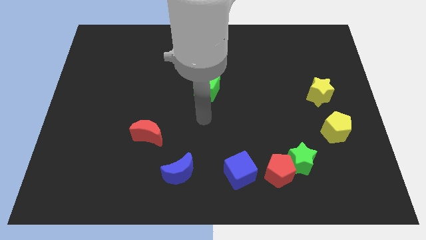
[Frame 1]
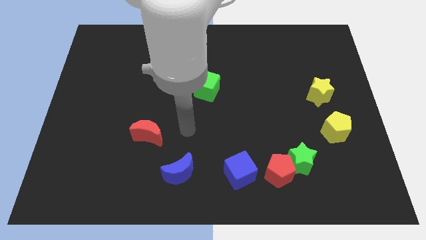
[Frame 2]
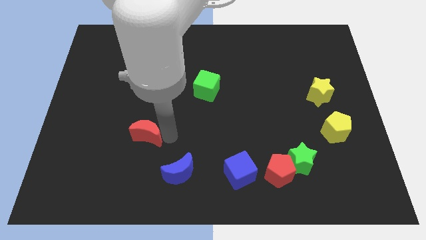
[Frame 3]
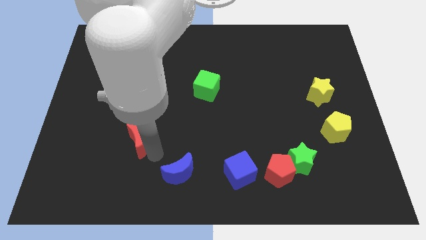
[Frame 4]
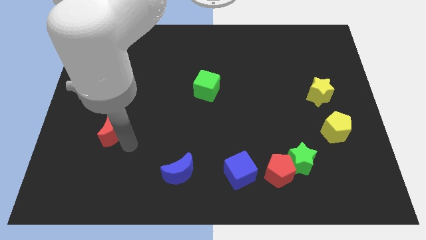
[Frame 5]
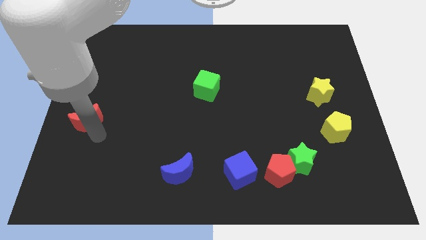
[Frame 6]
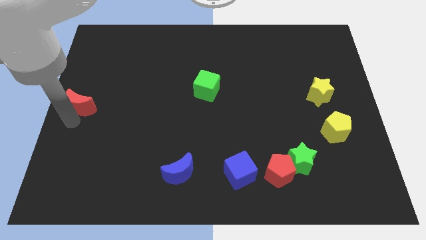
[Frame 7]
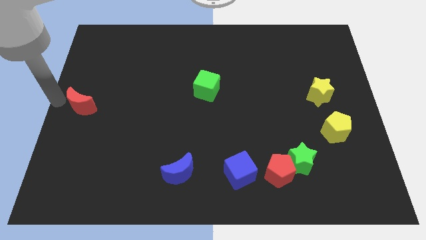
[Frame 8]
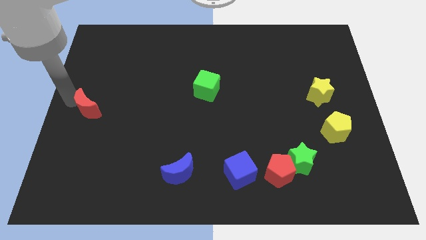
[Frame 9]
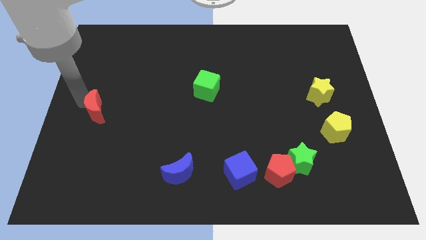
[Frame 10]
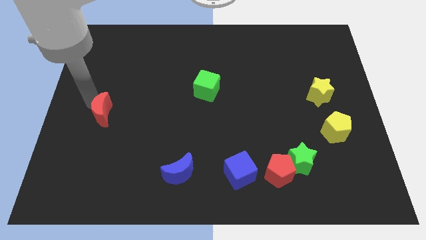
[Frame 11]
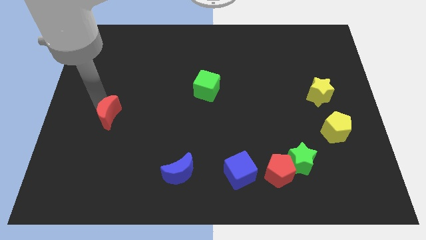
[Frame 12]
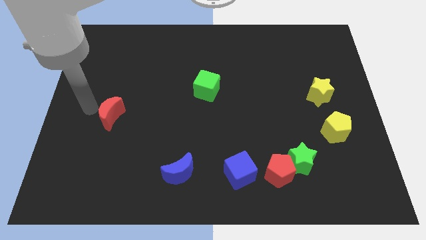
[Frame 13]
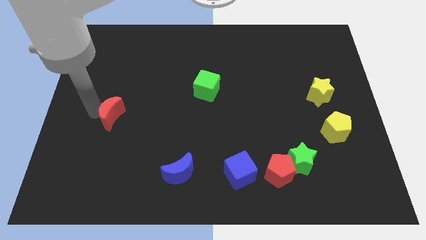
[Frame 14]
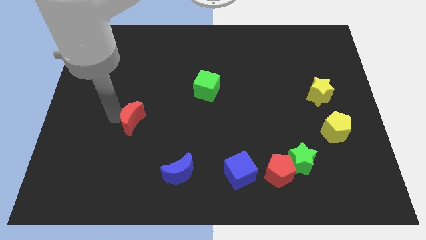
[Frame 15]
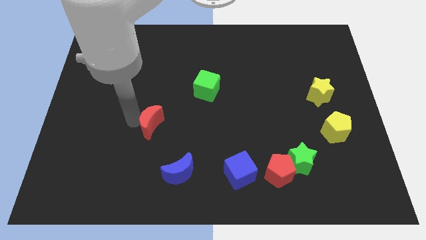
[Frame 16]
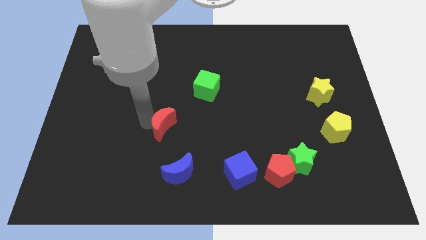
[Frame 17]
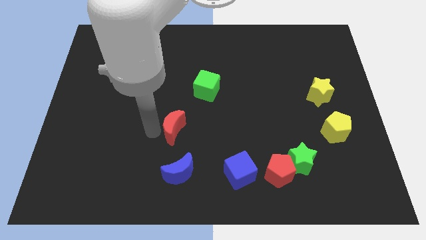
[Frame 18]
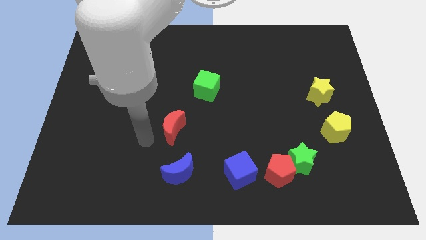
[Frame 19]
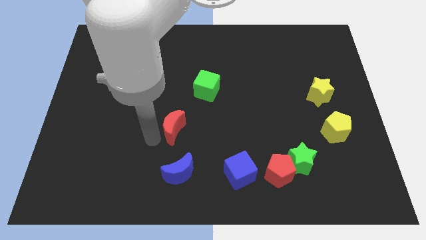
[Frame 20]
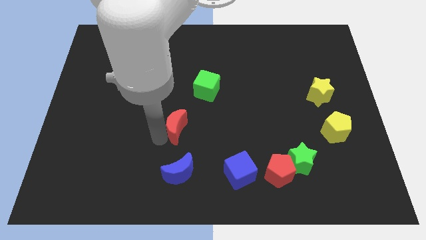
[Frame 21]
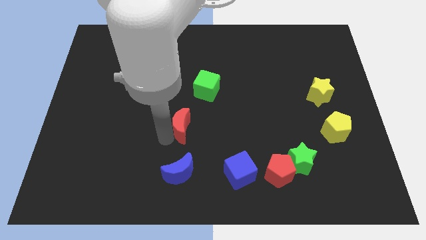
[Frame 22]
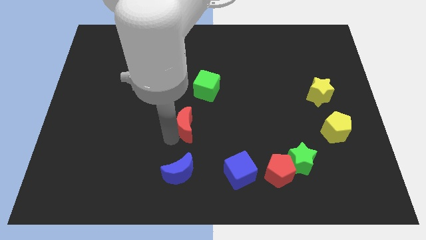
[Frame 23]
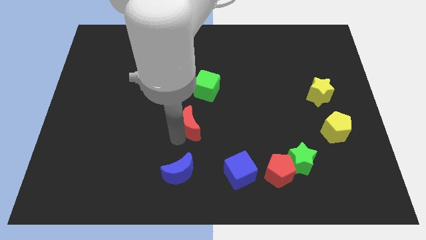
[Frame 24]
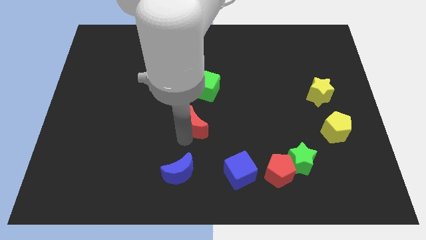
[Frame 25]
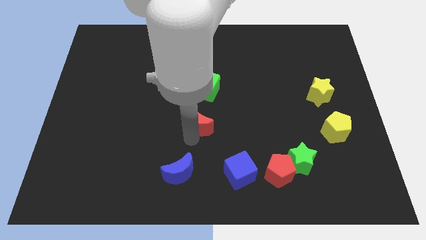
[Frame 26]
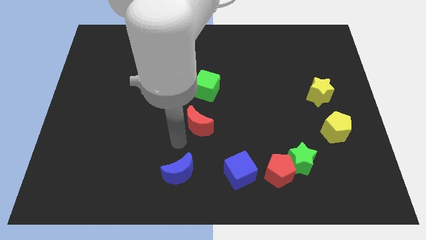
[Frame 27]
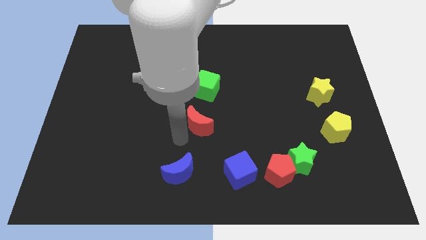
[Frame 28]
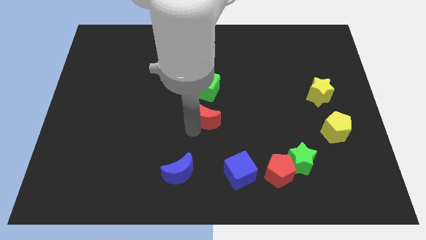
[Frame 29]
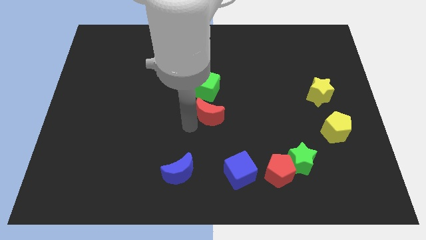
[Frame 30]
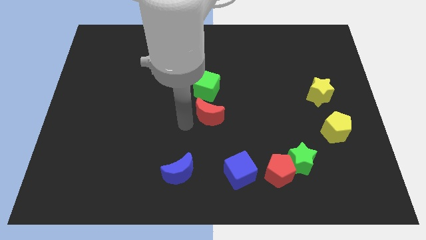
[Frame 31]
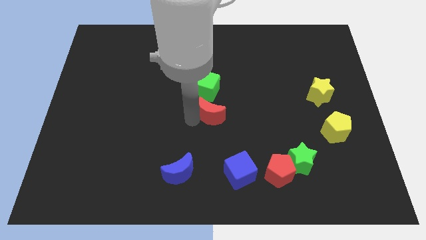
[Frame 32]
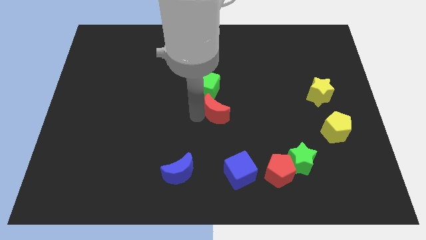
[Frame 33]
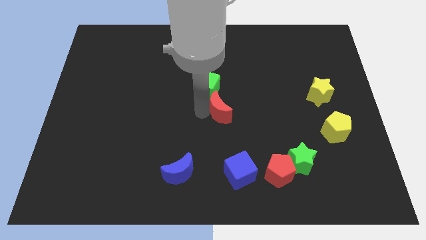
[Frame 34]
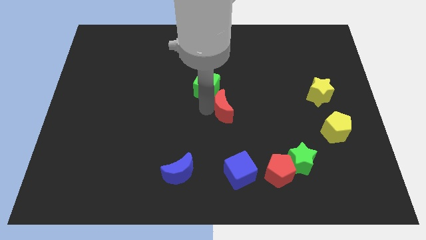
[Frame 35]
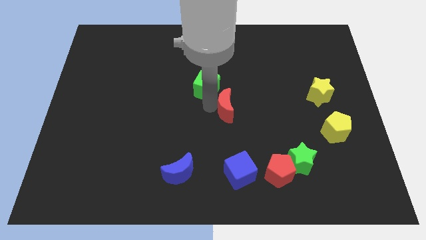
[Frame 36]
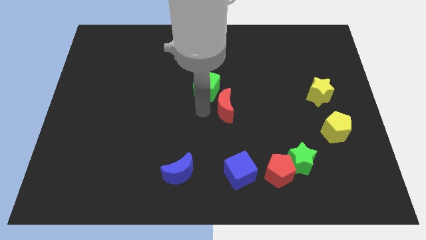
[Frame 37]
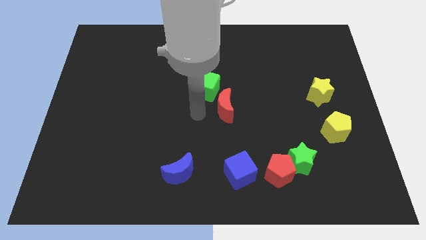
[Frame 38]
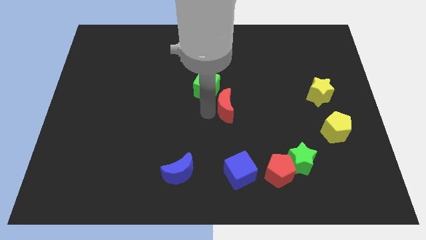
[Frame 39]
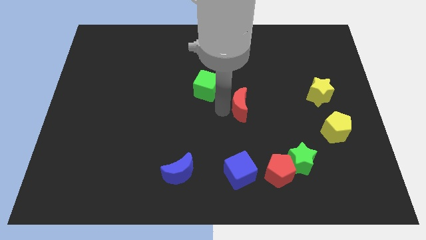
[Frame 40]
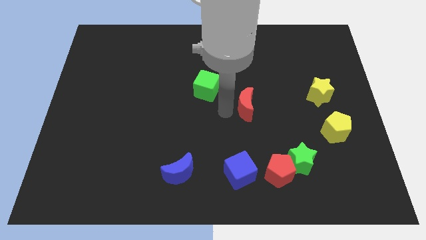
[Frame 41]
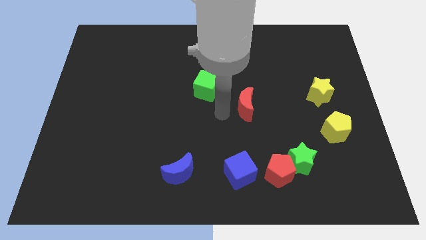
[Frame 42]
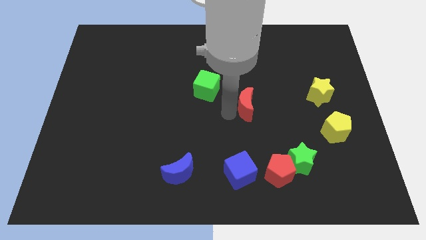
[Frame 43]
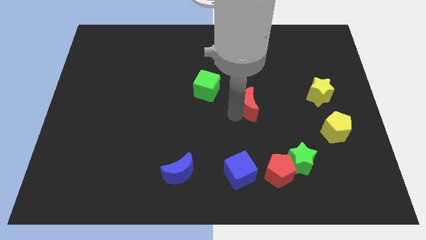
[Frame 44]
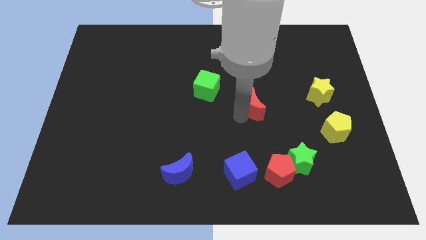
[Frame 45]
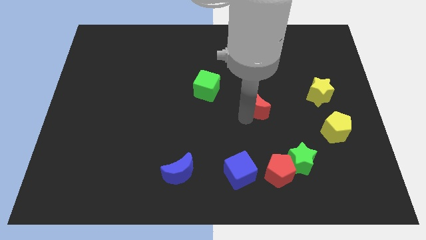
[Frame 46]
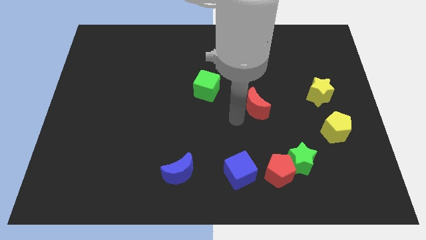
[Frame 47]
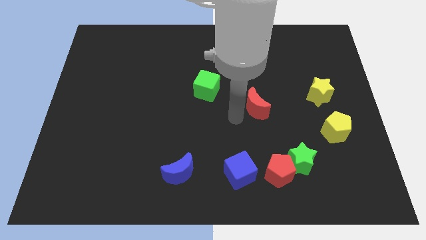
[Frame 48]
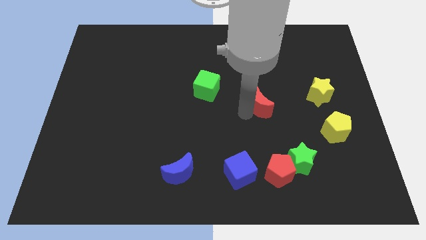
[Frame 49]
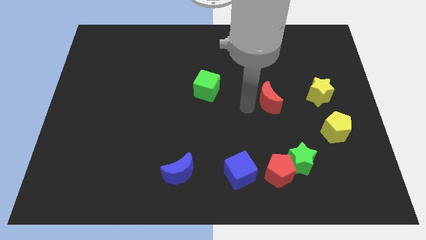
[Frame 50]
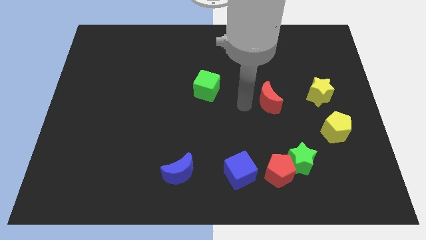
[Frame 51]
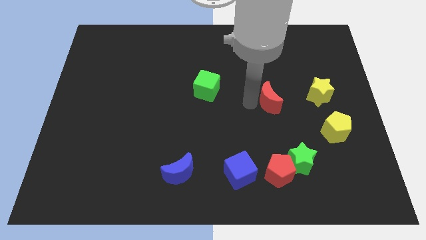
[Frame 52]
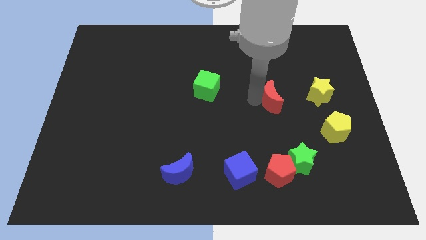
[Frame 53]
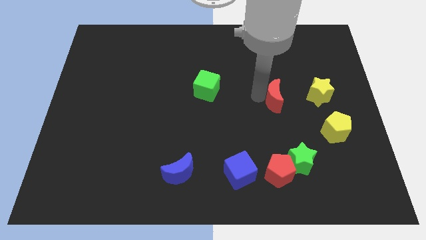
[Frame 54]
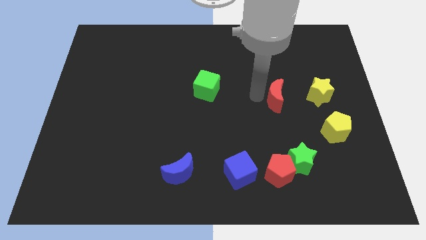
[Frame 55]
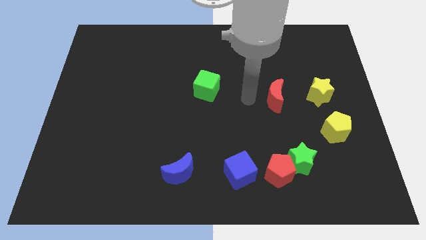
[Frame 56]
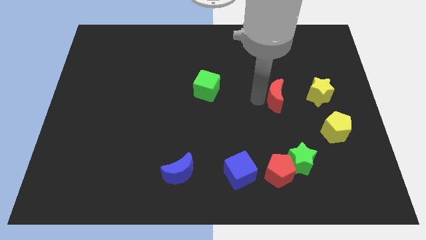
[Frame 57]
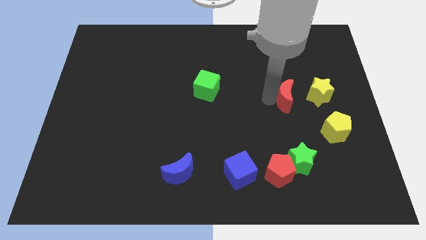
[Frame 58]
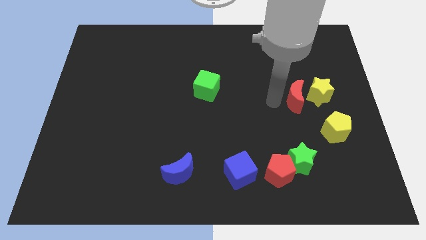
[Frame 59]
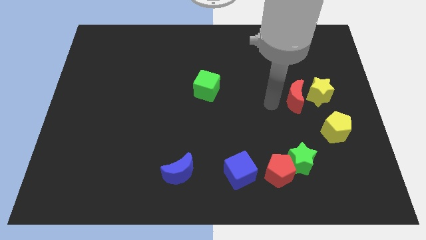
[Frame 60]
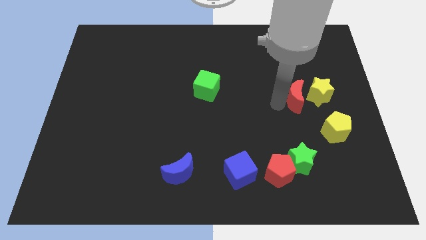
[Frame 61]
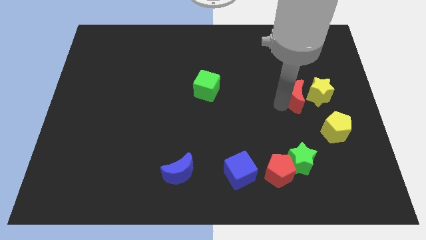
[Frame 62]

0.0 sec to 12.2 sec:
put the red moon next to the yellow star

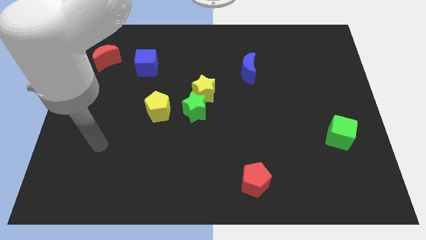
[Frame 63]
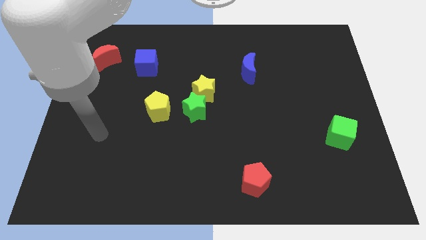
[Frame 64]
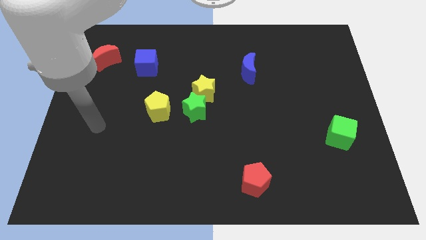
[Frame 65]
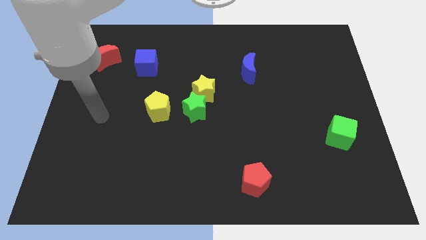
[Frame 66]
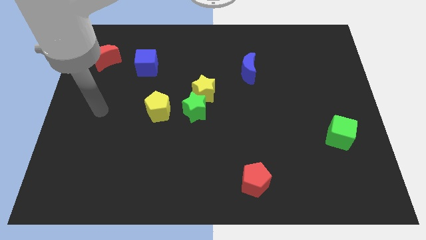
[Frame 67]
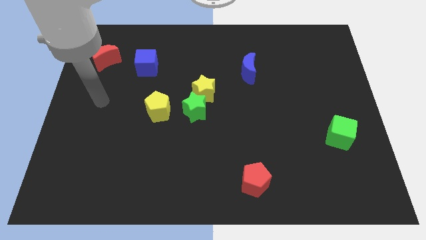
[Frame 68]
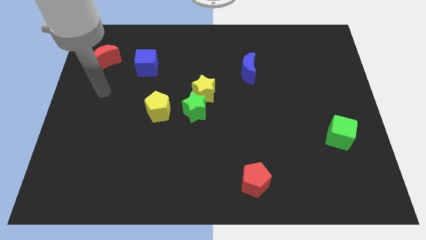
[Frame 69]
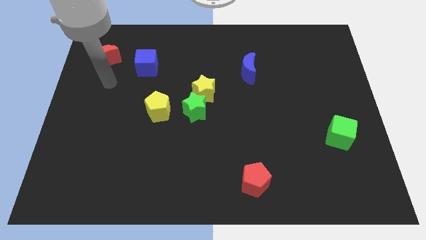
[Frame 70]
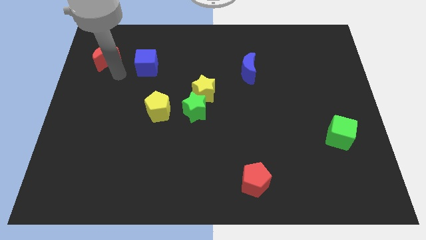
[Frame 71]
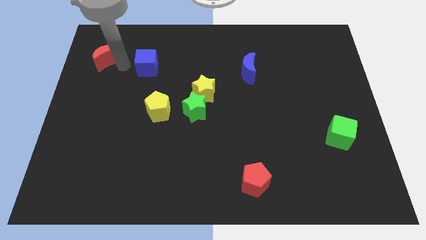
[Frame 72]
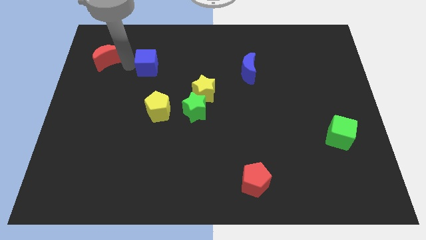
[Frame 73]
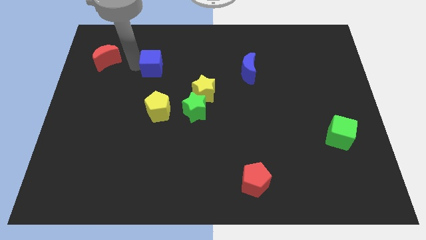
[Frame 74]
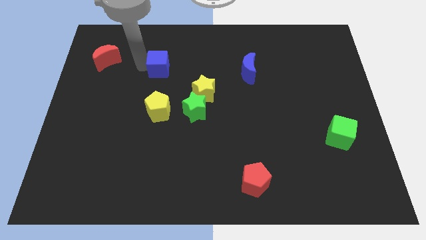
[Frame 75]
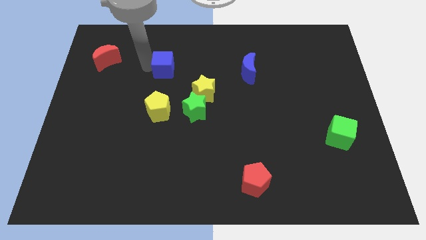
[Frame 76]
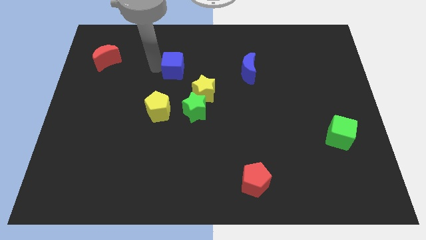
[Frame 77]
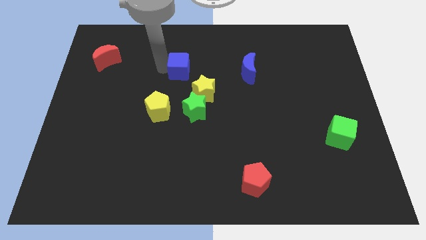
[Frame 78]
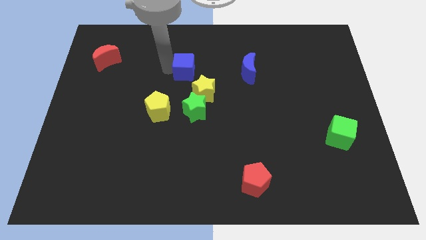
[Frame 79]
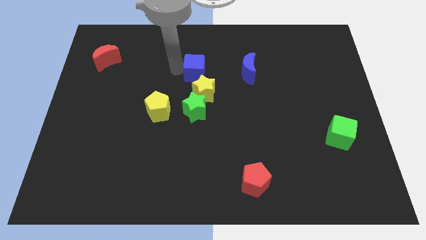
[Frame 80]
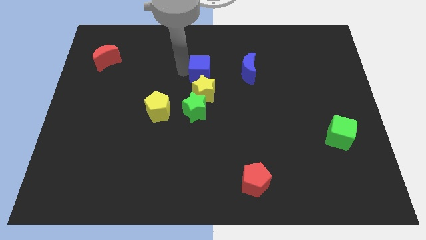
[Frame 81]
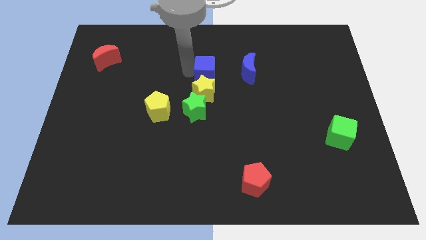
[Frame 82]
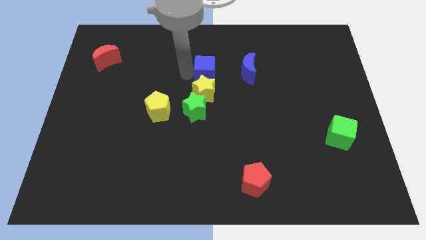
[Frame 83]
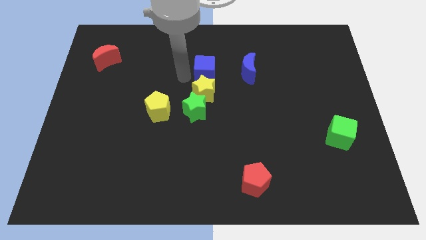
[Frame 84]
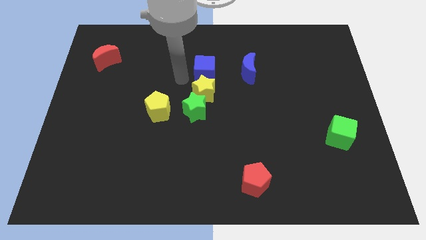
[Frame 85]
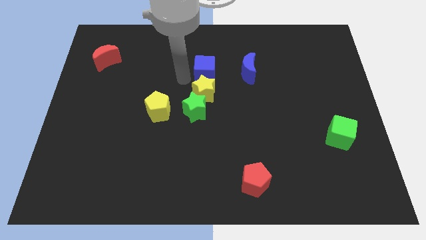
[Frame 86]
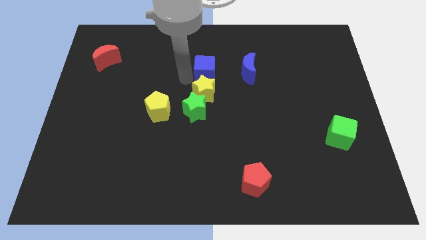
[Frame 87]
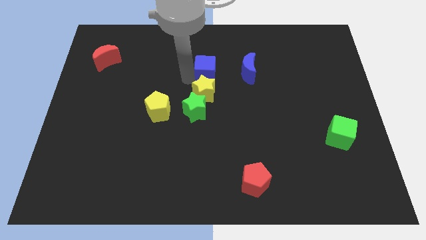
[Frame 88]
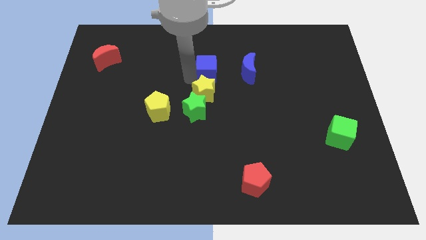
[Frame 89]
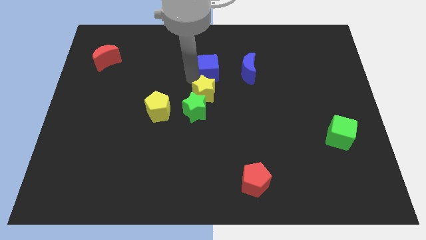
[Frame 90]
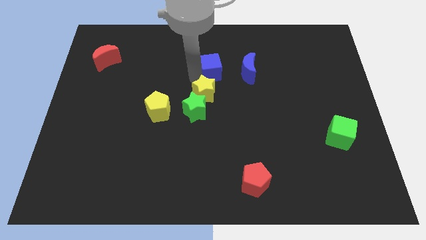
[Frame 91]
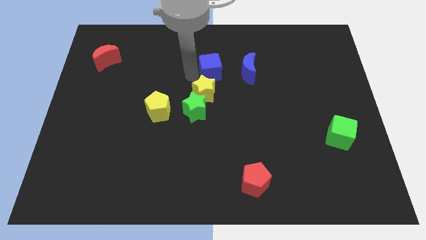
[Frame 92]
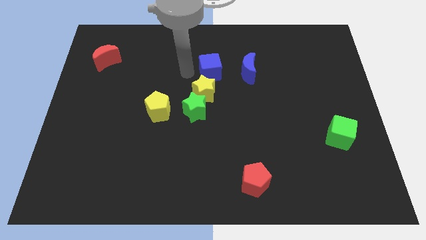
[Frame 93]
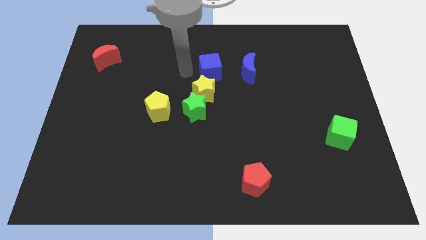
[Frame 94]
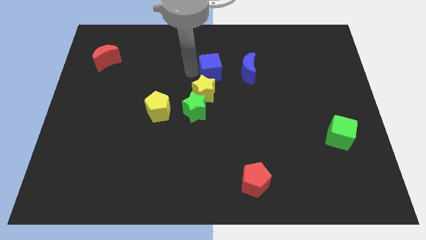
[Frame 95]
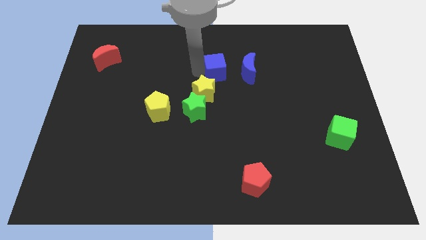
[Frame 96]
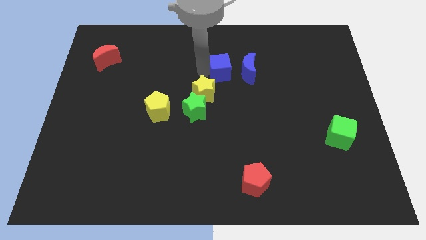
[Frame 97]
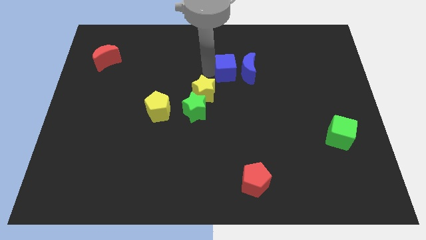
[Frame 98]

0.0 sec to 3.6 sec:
put the blue cube to the blue moon
